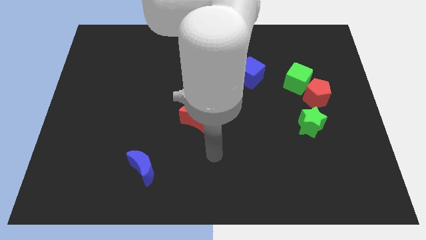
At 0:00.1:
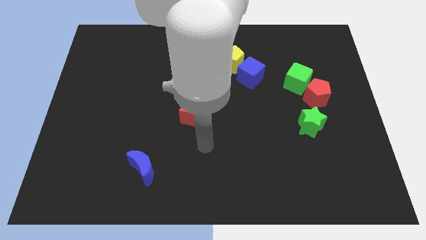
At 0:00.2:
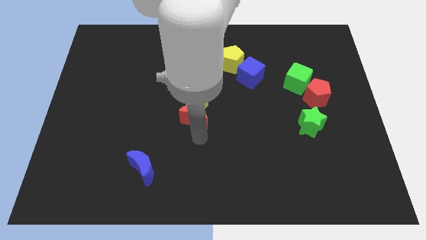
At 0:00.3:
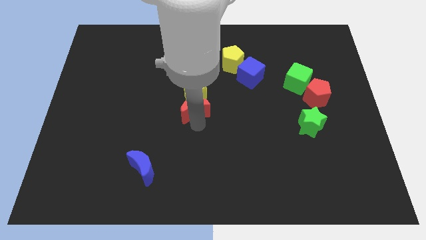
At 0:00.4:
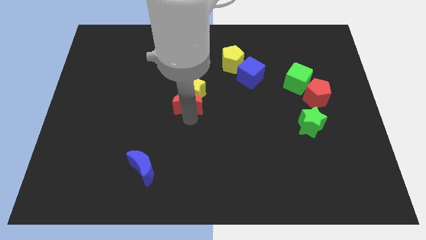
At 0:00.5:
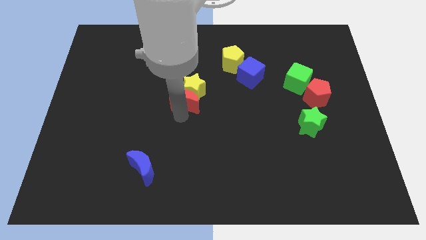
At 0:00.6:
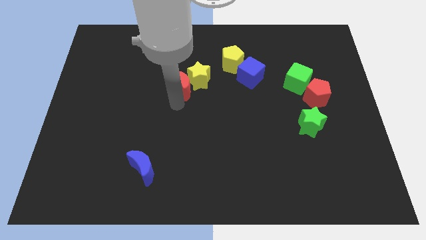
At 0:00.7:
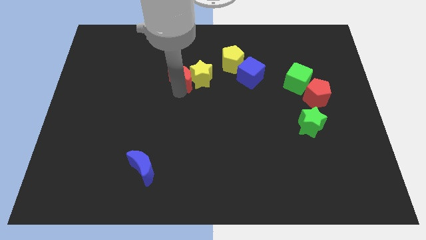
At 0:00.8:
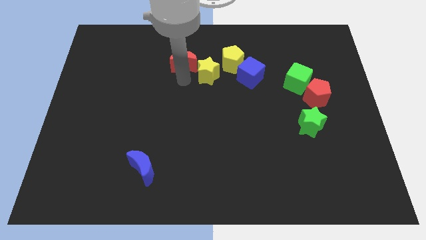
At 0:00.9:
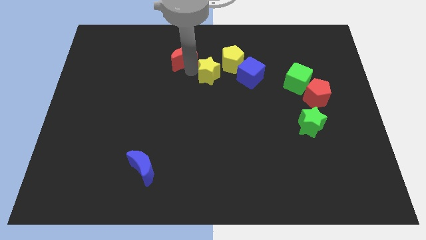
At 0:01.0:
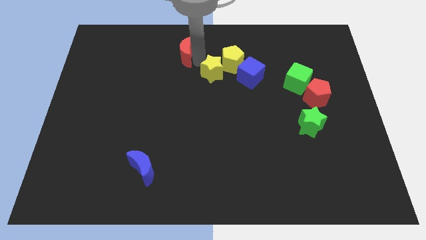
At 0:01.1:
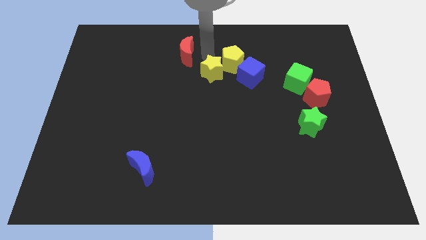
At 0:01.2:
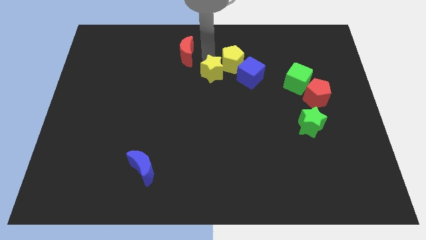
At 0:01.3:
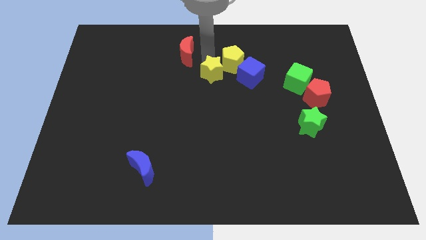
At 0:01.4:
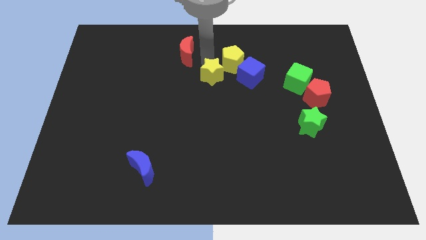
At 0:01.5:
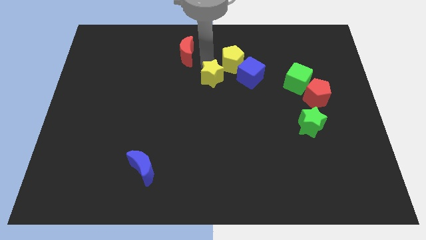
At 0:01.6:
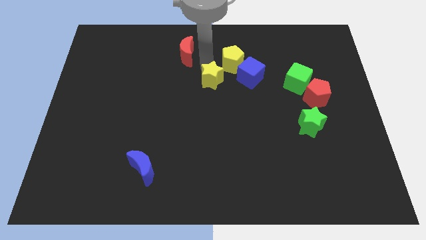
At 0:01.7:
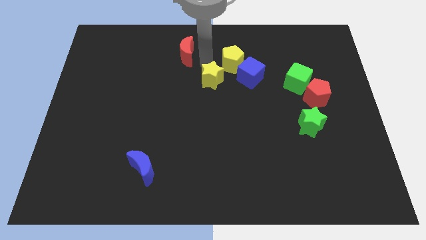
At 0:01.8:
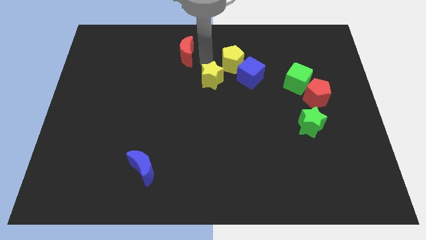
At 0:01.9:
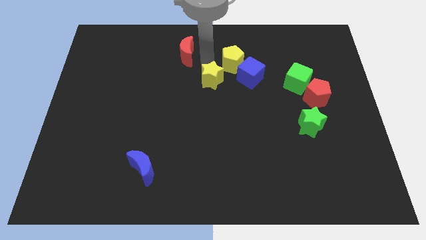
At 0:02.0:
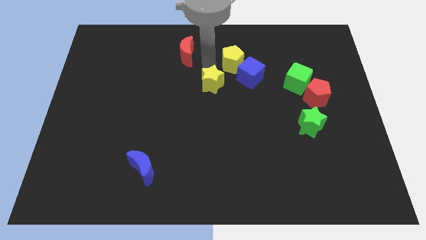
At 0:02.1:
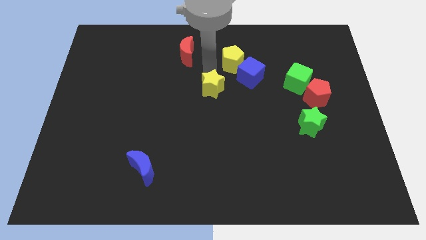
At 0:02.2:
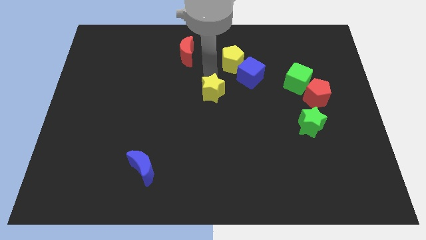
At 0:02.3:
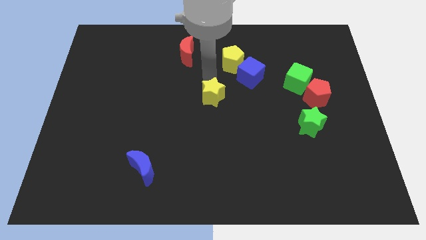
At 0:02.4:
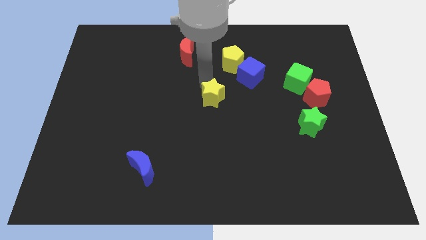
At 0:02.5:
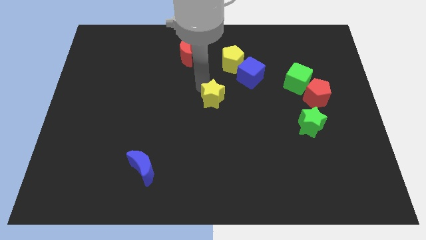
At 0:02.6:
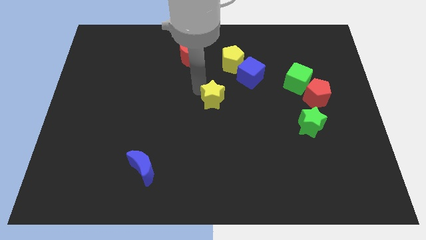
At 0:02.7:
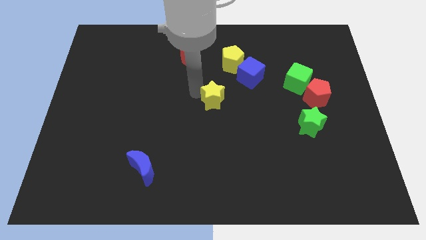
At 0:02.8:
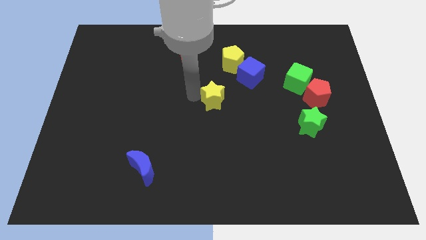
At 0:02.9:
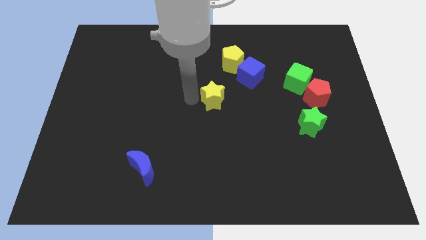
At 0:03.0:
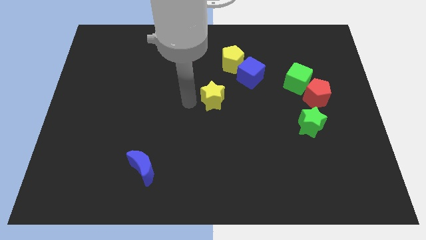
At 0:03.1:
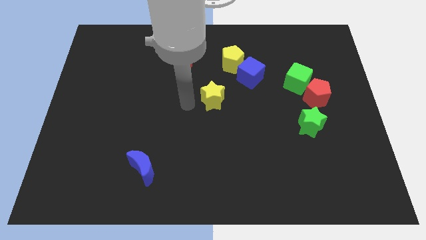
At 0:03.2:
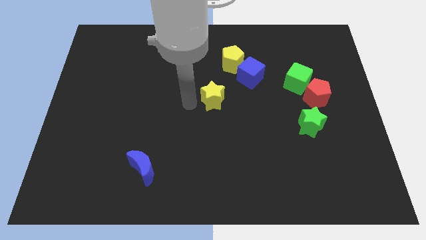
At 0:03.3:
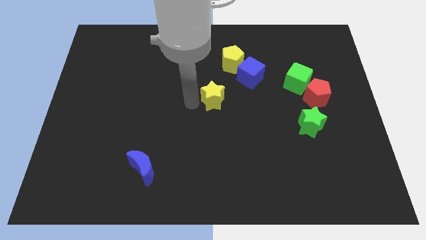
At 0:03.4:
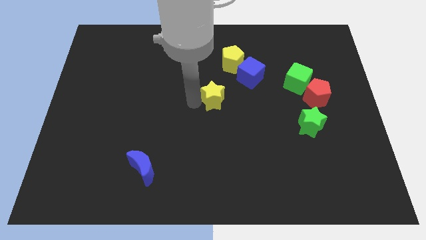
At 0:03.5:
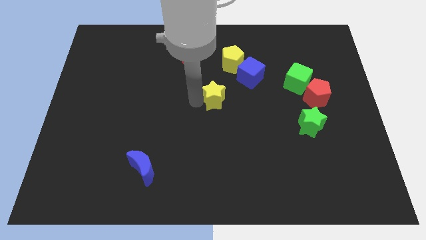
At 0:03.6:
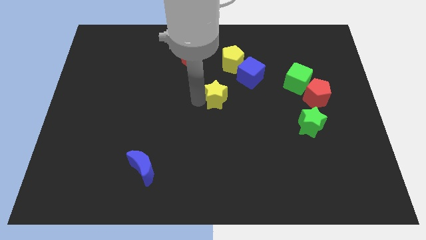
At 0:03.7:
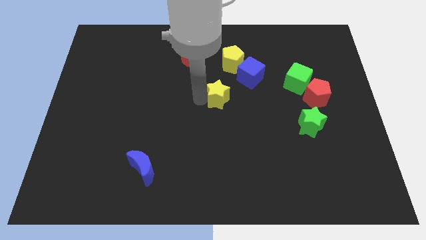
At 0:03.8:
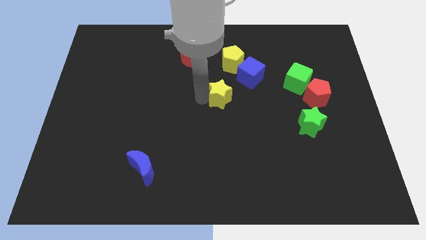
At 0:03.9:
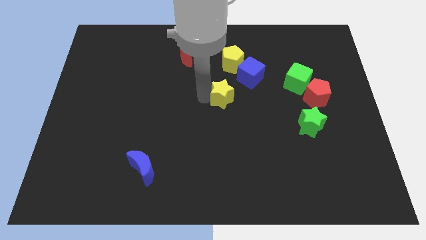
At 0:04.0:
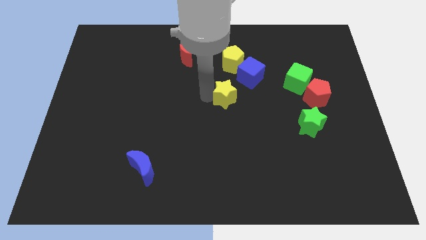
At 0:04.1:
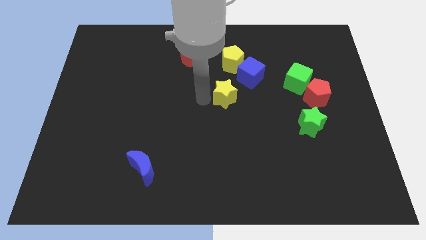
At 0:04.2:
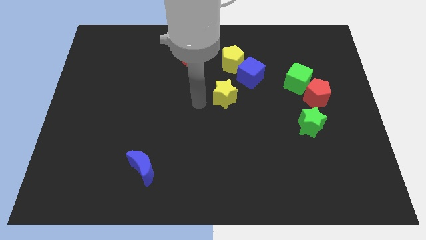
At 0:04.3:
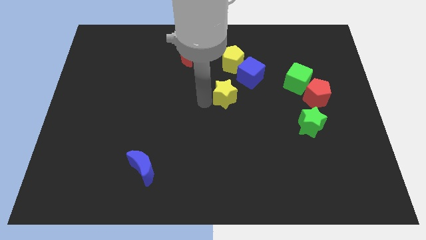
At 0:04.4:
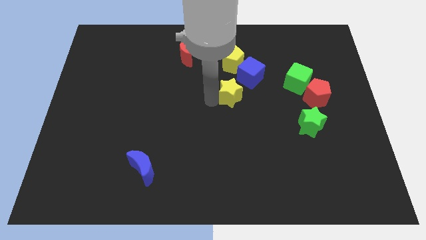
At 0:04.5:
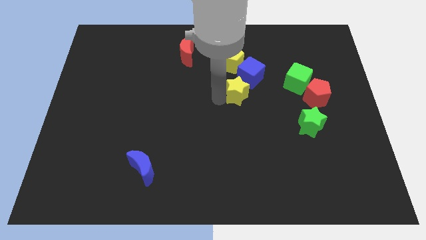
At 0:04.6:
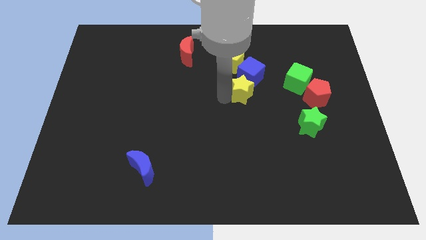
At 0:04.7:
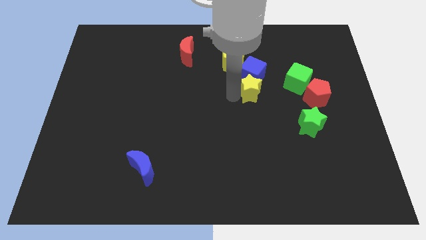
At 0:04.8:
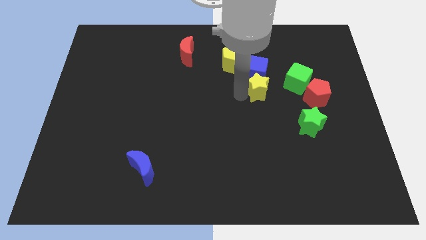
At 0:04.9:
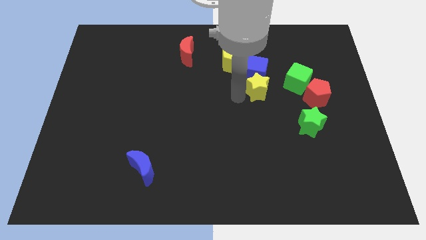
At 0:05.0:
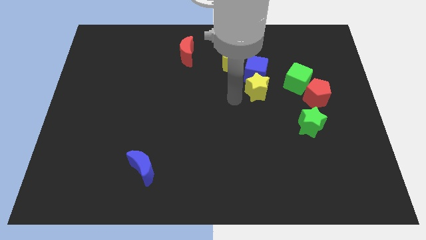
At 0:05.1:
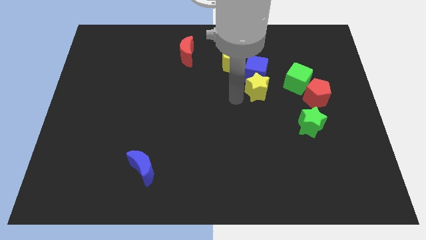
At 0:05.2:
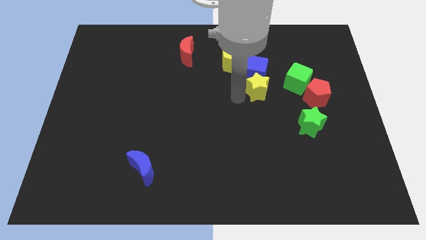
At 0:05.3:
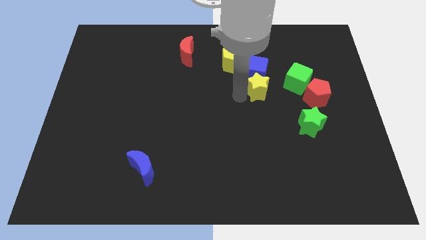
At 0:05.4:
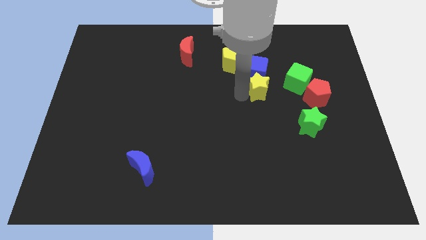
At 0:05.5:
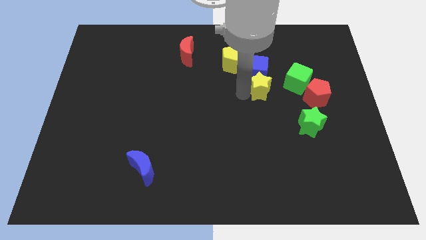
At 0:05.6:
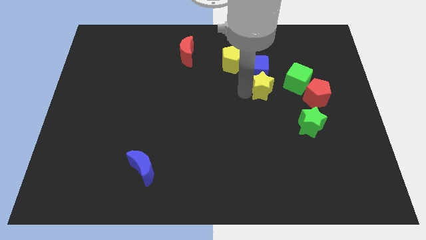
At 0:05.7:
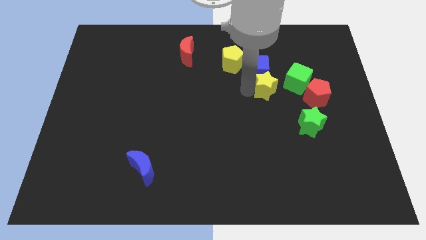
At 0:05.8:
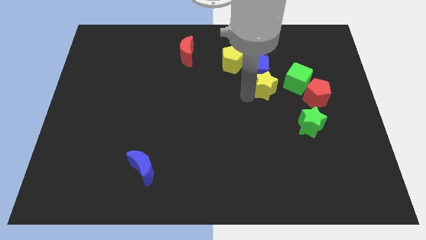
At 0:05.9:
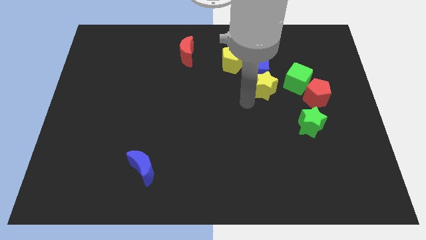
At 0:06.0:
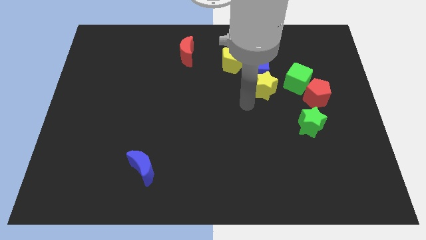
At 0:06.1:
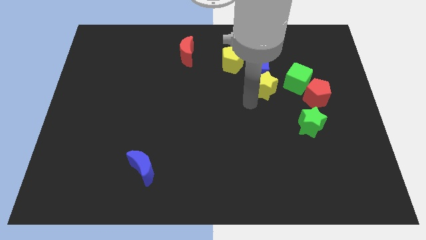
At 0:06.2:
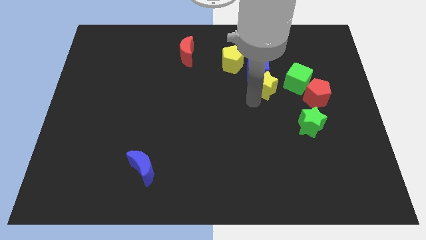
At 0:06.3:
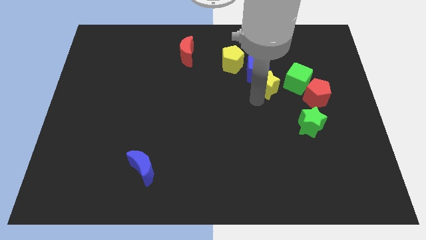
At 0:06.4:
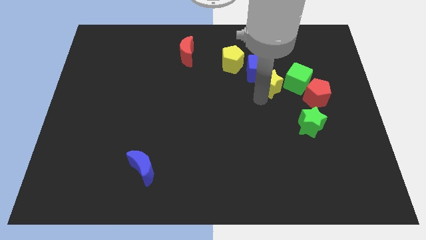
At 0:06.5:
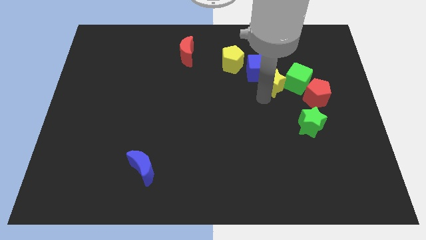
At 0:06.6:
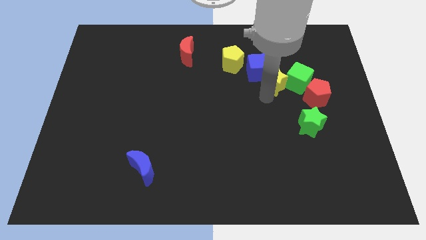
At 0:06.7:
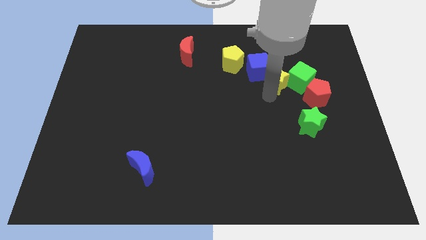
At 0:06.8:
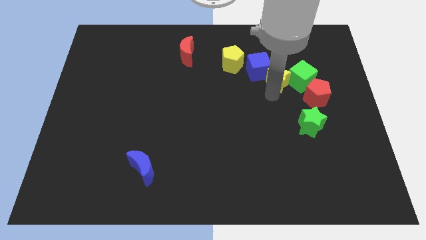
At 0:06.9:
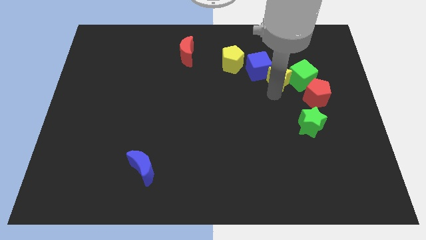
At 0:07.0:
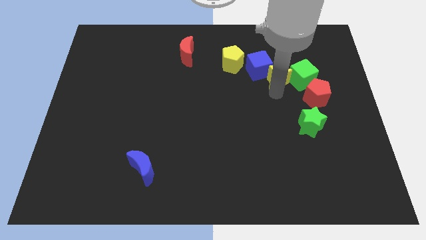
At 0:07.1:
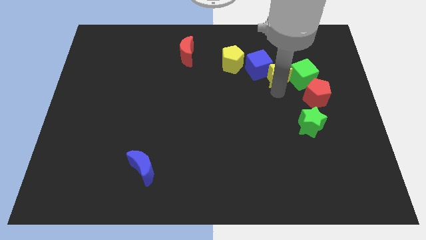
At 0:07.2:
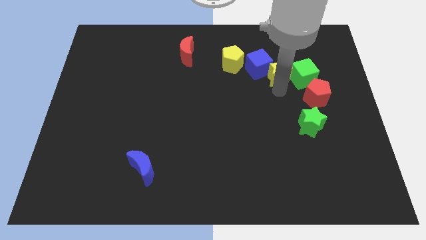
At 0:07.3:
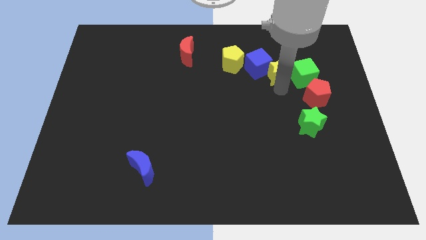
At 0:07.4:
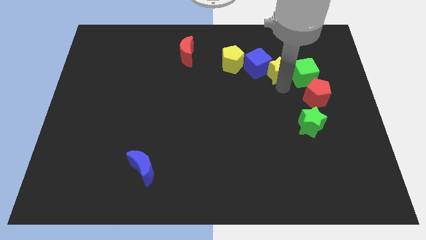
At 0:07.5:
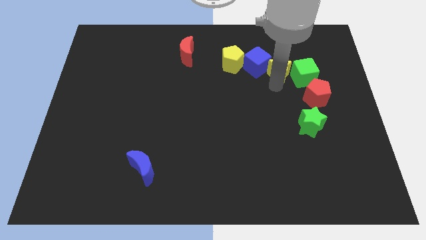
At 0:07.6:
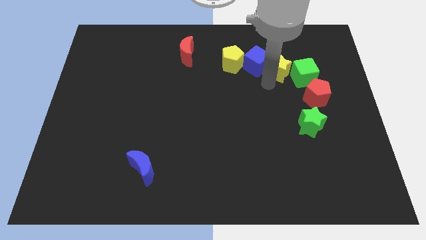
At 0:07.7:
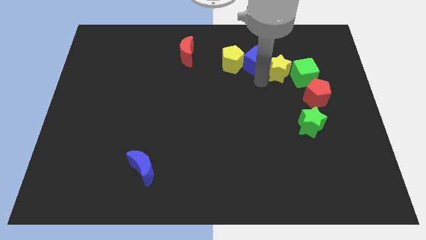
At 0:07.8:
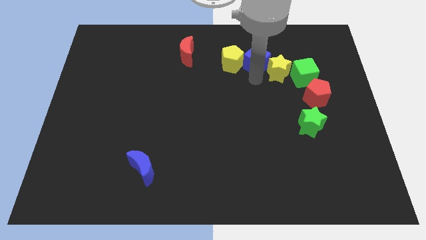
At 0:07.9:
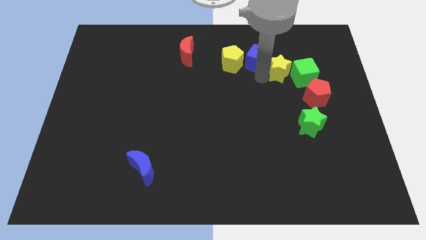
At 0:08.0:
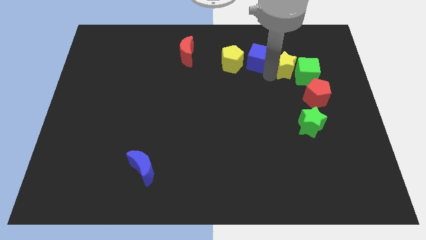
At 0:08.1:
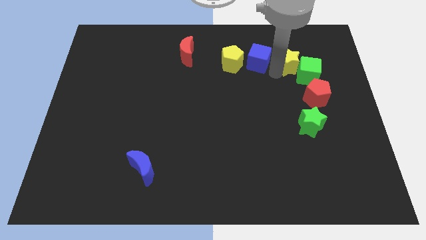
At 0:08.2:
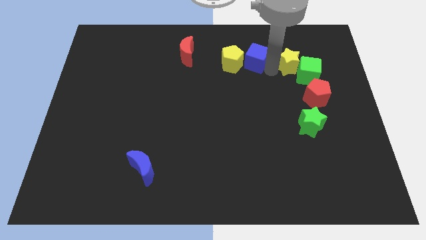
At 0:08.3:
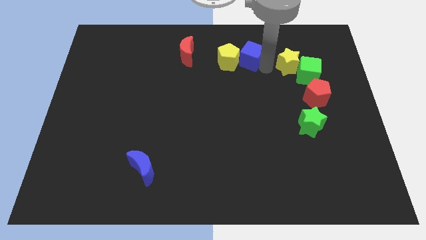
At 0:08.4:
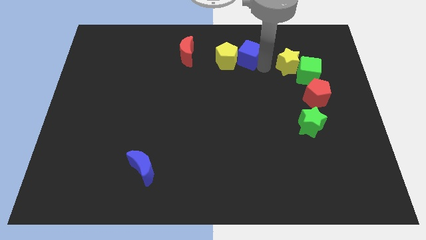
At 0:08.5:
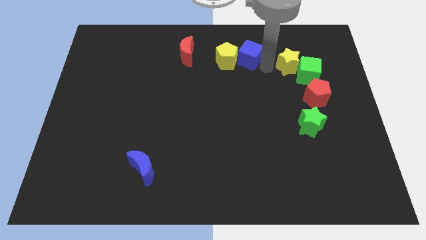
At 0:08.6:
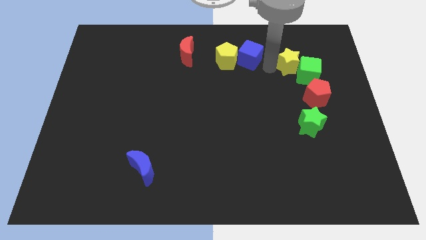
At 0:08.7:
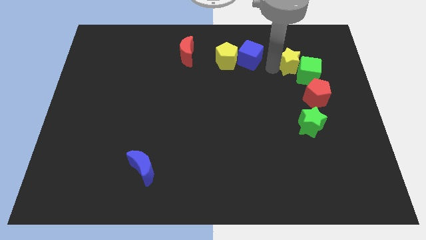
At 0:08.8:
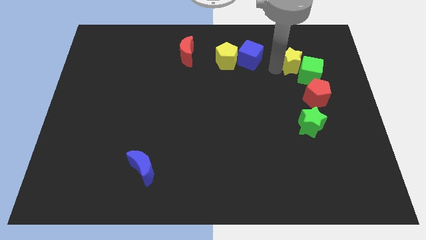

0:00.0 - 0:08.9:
put the yellow star to the top of the red pentagon
